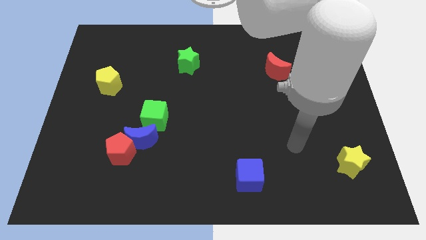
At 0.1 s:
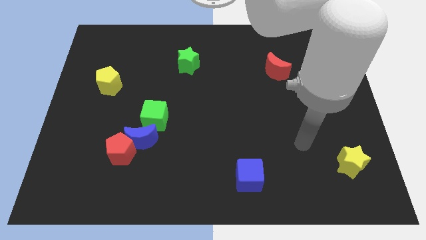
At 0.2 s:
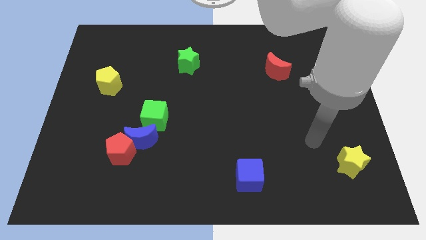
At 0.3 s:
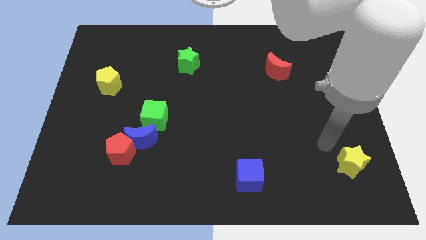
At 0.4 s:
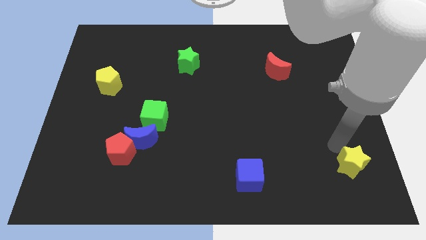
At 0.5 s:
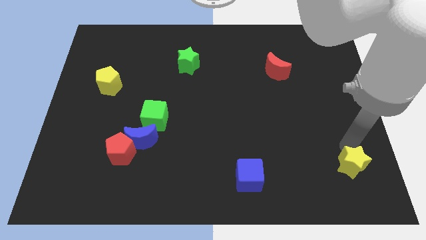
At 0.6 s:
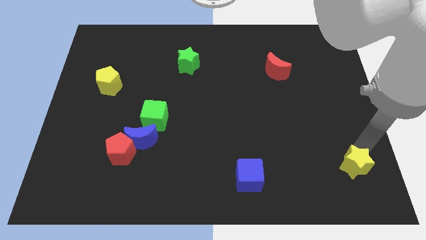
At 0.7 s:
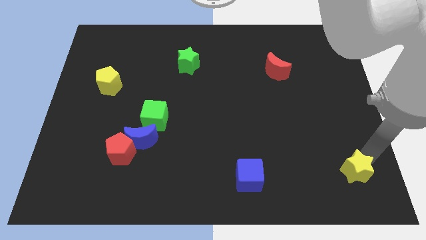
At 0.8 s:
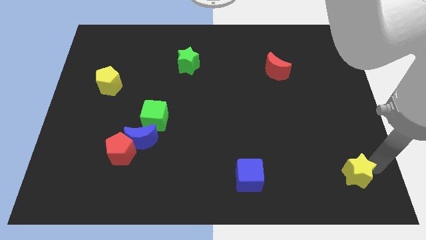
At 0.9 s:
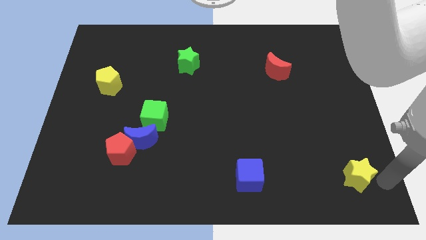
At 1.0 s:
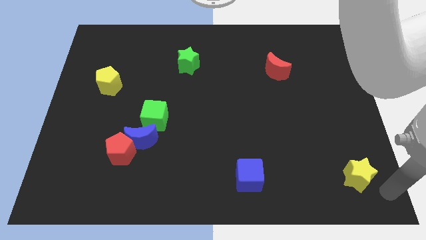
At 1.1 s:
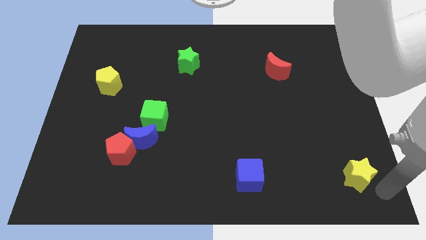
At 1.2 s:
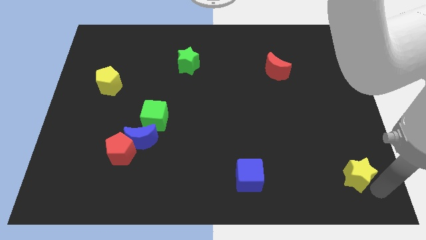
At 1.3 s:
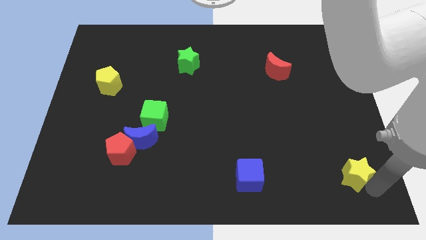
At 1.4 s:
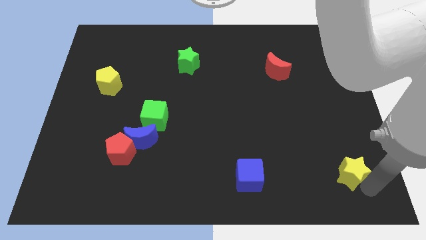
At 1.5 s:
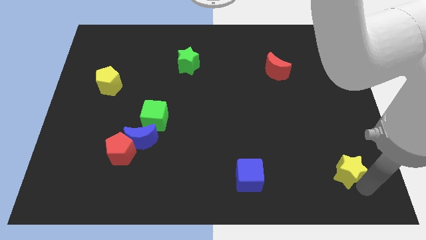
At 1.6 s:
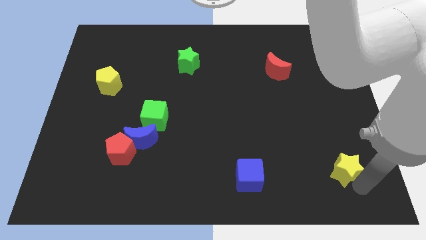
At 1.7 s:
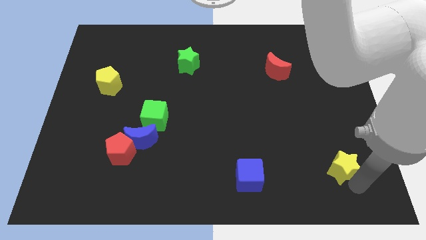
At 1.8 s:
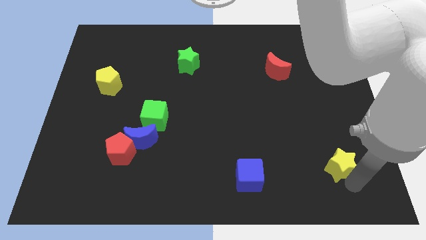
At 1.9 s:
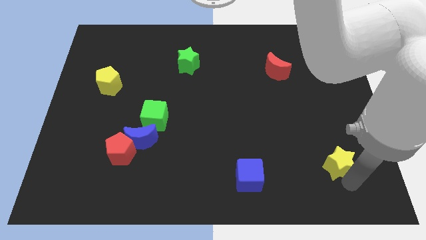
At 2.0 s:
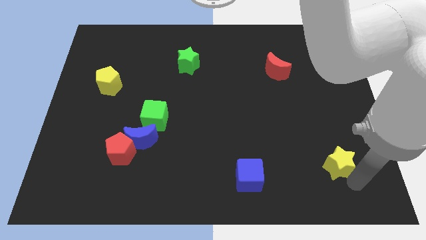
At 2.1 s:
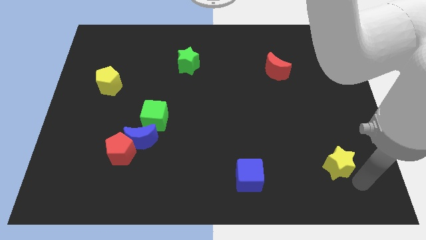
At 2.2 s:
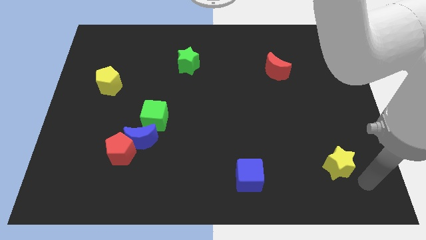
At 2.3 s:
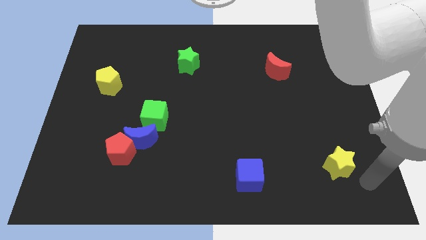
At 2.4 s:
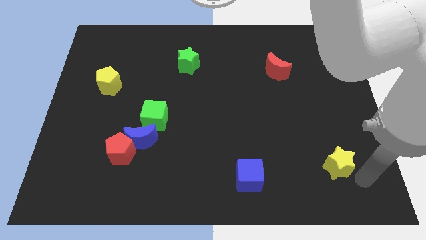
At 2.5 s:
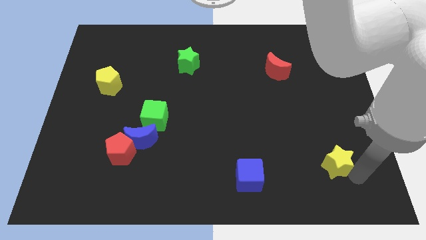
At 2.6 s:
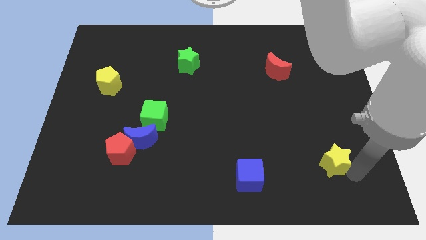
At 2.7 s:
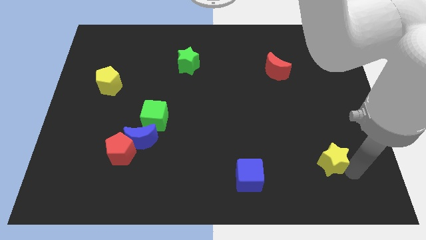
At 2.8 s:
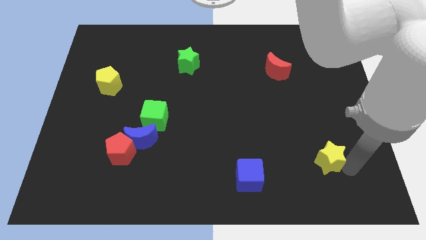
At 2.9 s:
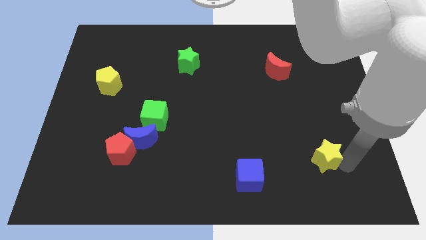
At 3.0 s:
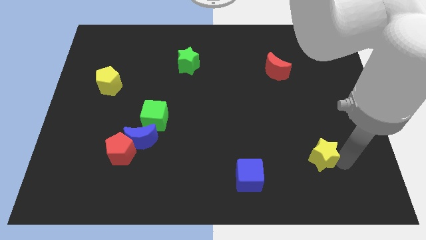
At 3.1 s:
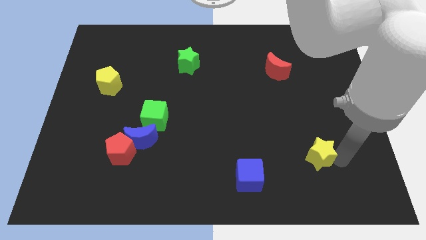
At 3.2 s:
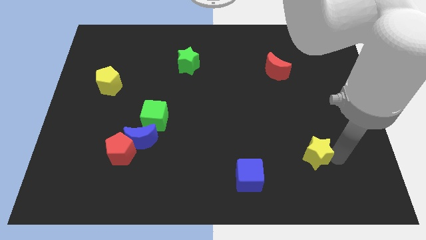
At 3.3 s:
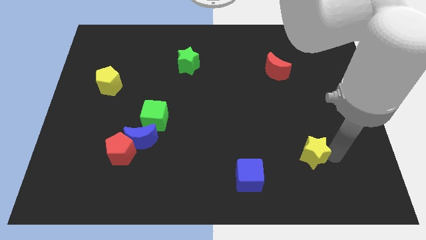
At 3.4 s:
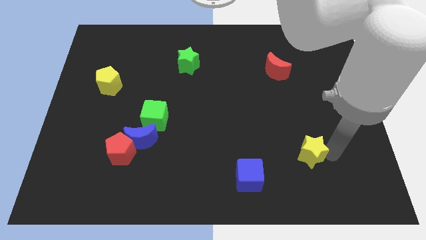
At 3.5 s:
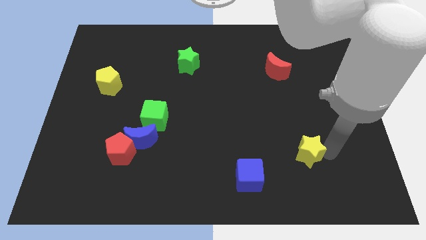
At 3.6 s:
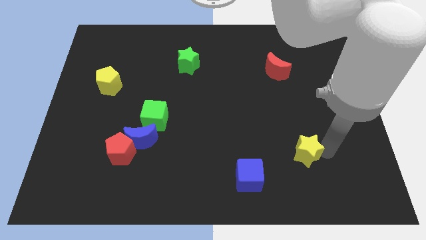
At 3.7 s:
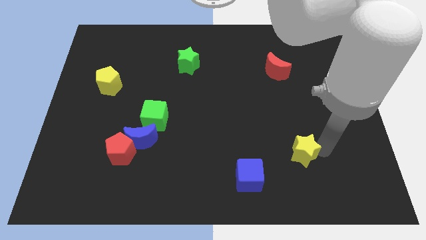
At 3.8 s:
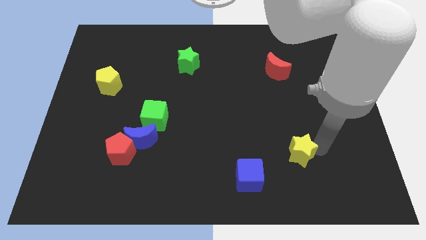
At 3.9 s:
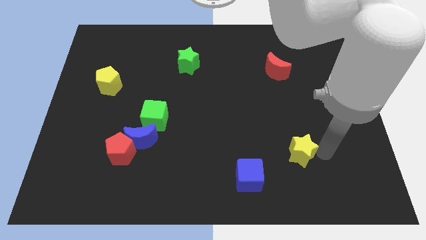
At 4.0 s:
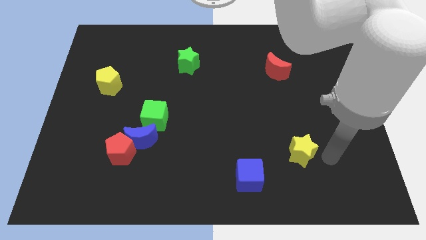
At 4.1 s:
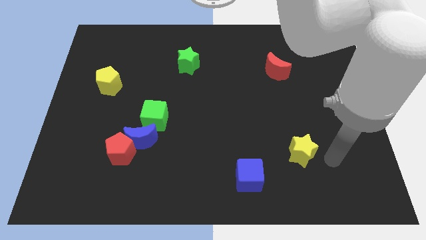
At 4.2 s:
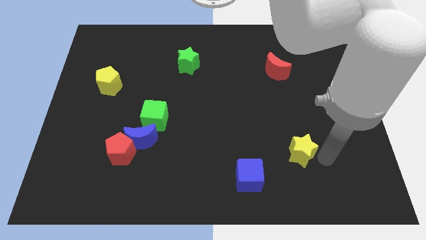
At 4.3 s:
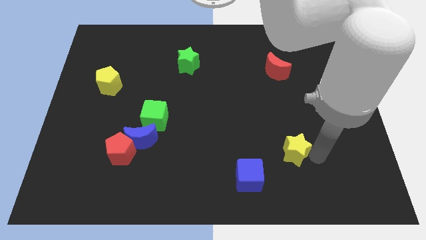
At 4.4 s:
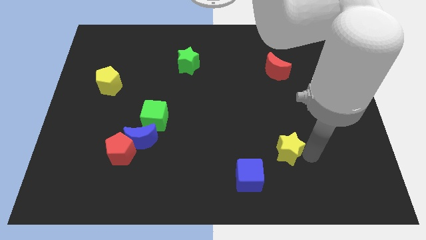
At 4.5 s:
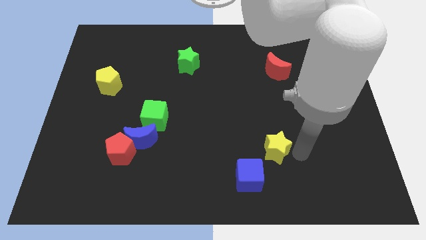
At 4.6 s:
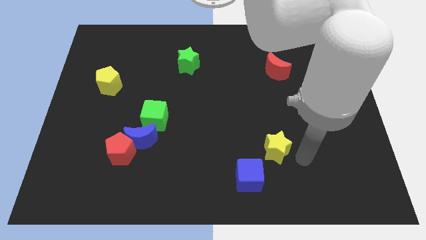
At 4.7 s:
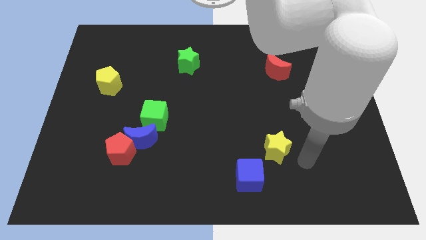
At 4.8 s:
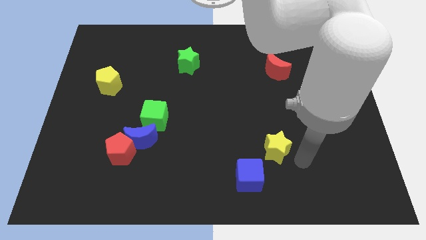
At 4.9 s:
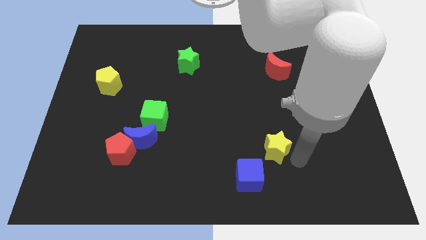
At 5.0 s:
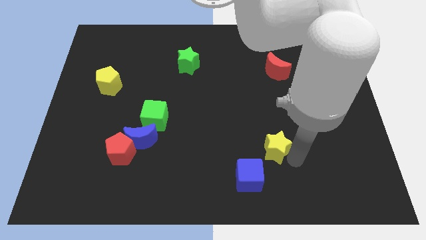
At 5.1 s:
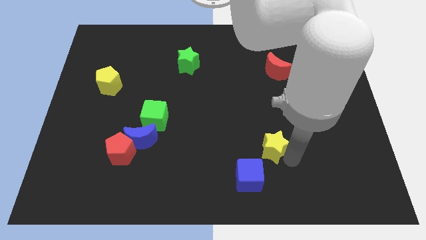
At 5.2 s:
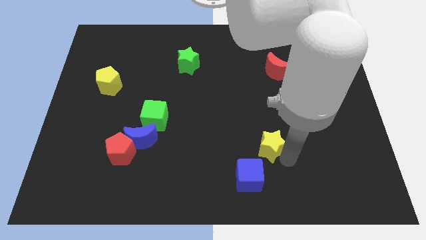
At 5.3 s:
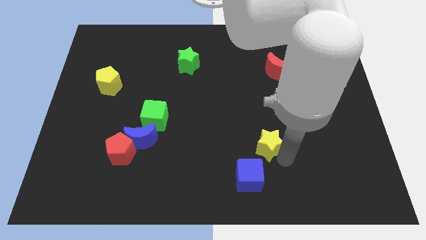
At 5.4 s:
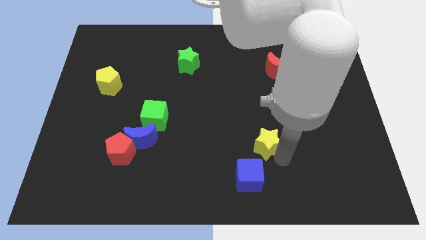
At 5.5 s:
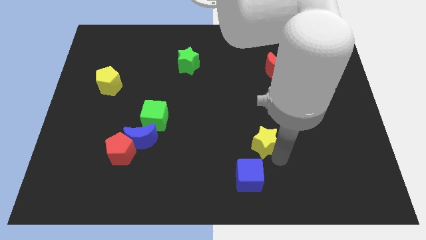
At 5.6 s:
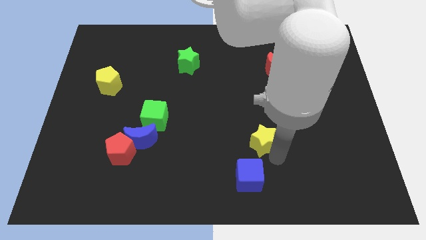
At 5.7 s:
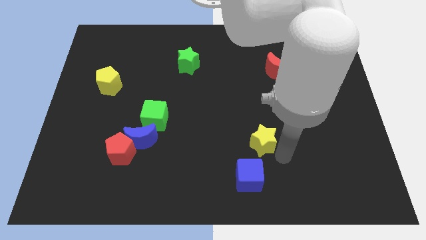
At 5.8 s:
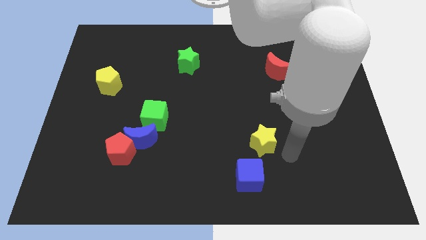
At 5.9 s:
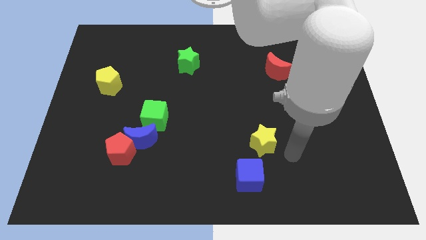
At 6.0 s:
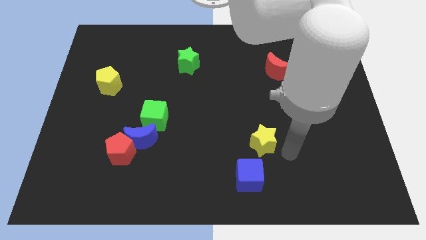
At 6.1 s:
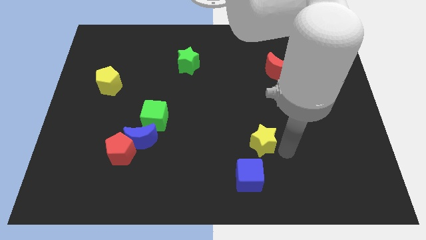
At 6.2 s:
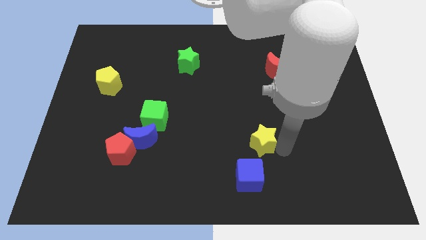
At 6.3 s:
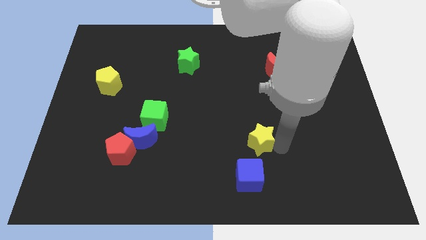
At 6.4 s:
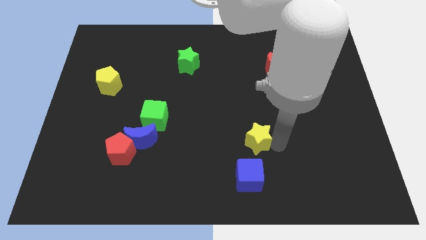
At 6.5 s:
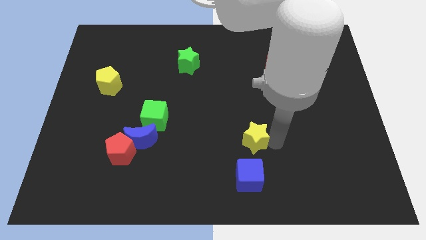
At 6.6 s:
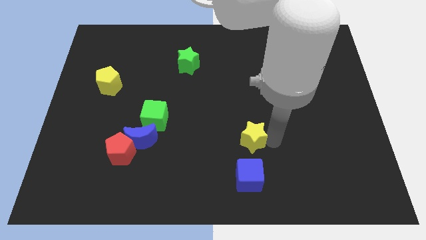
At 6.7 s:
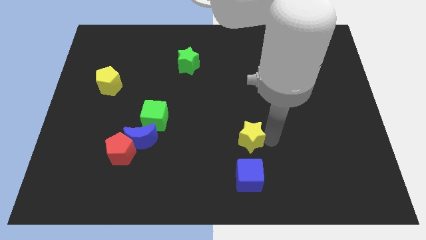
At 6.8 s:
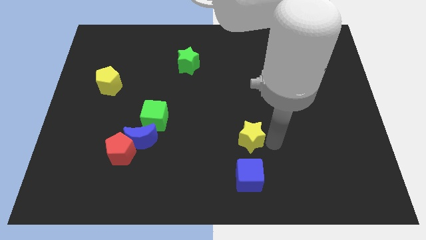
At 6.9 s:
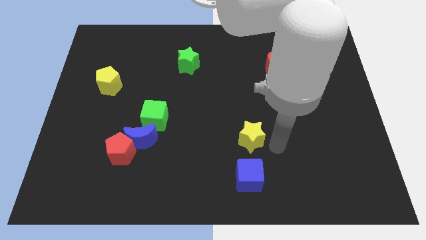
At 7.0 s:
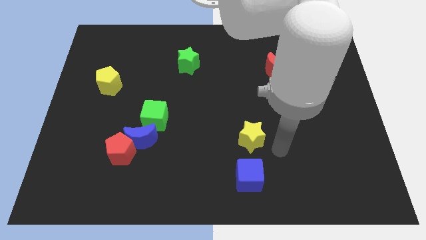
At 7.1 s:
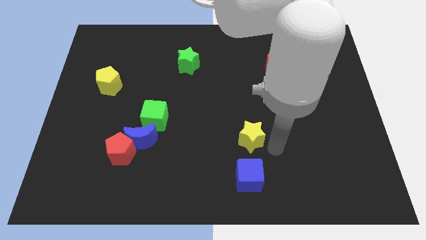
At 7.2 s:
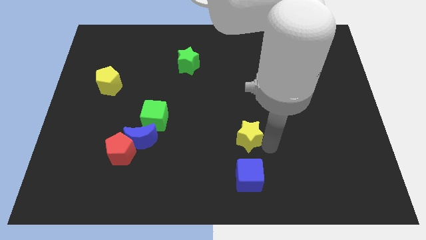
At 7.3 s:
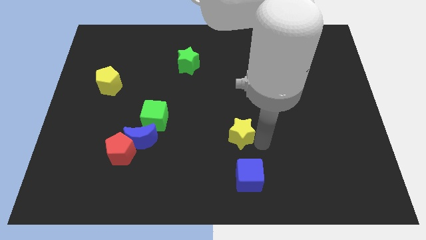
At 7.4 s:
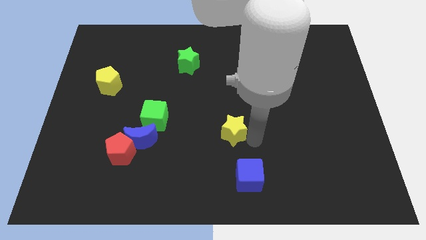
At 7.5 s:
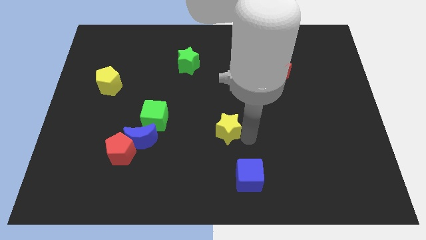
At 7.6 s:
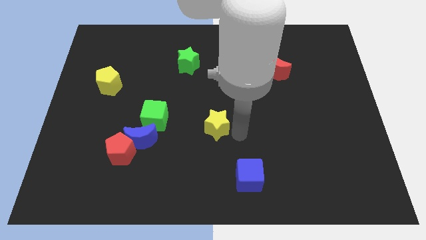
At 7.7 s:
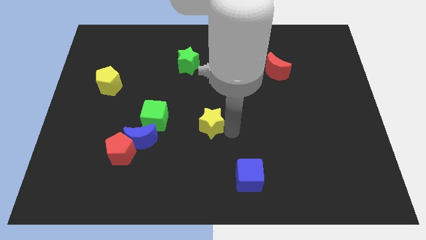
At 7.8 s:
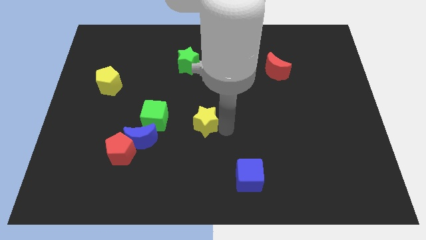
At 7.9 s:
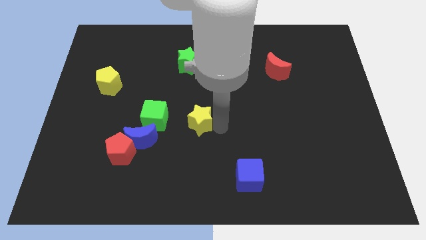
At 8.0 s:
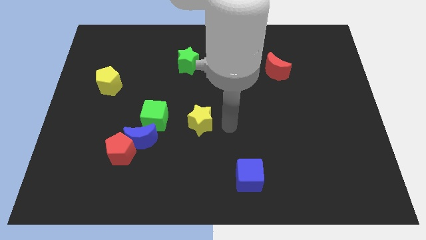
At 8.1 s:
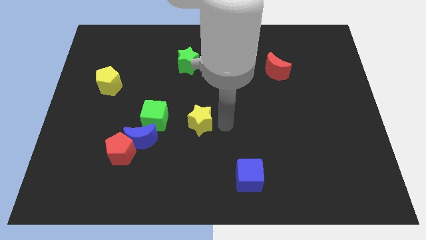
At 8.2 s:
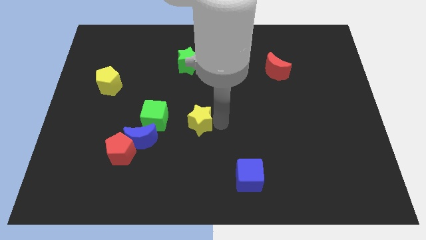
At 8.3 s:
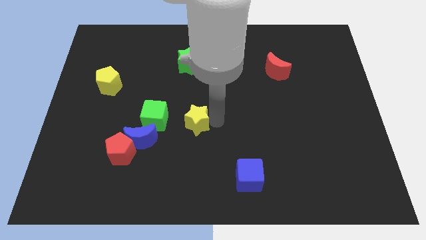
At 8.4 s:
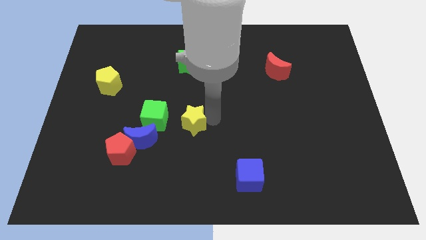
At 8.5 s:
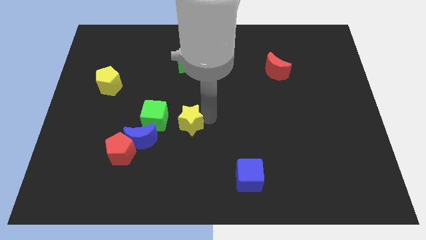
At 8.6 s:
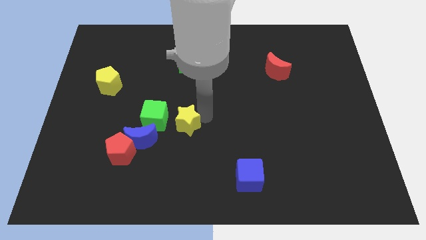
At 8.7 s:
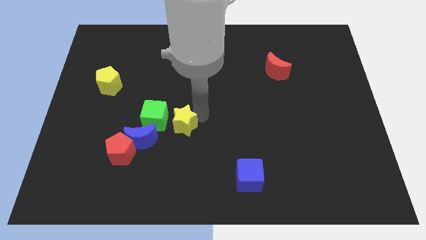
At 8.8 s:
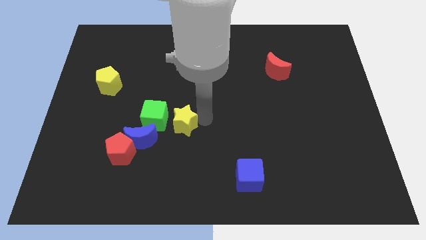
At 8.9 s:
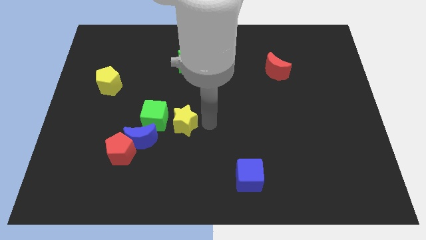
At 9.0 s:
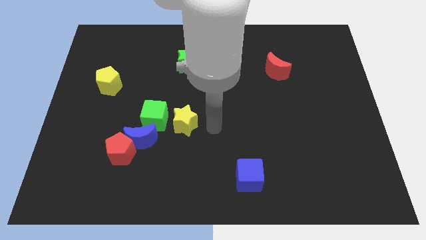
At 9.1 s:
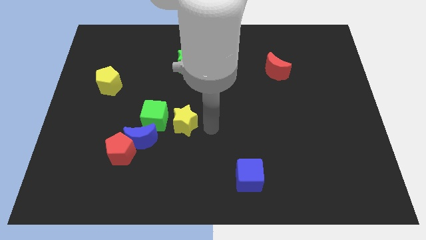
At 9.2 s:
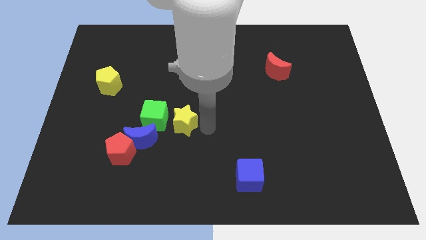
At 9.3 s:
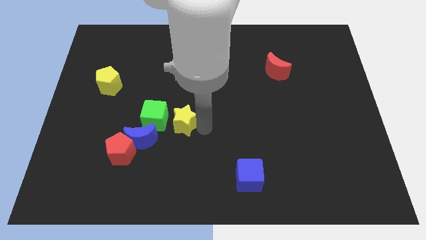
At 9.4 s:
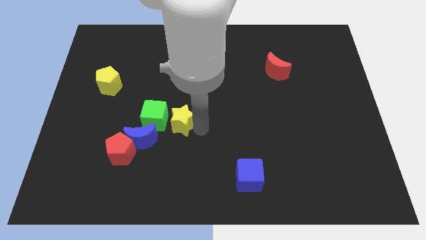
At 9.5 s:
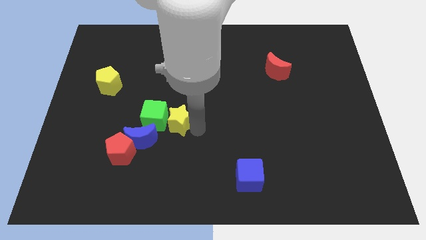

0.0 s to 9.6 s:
move the yellow star next to the green cube
